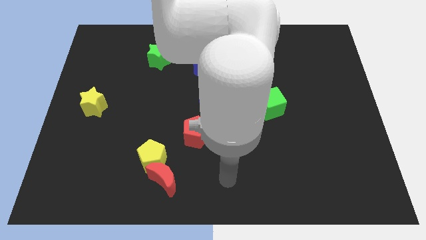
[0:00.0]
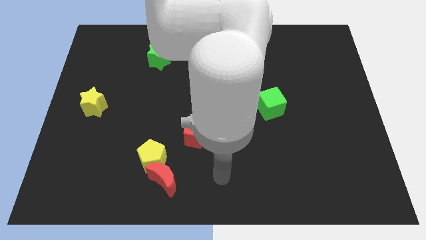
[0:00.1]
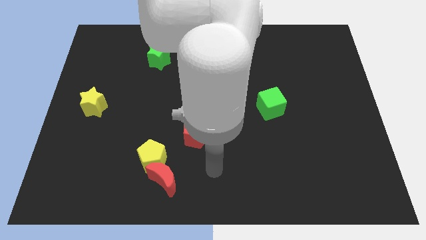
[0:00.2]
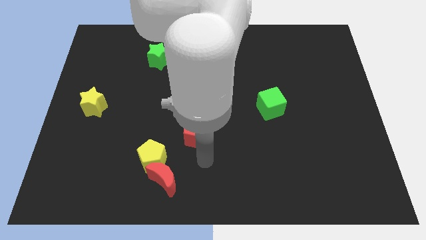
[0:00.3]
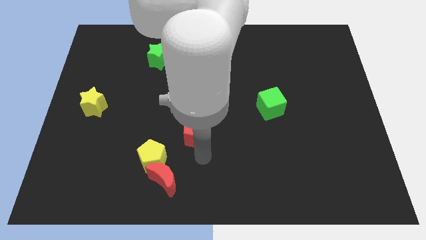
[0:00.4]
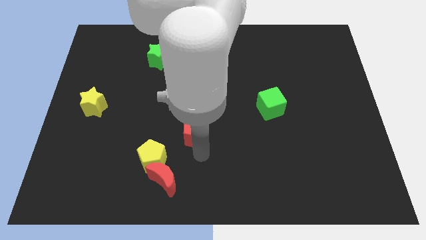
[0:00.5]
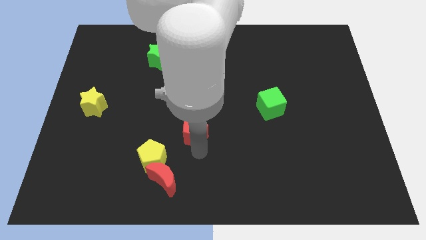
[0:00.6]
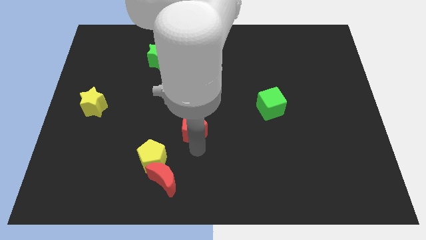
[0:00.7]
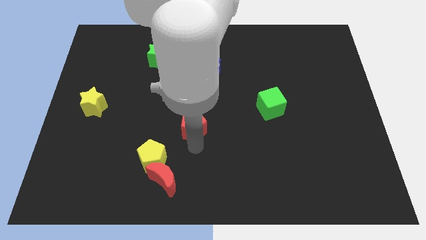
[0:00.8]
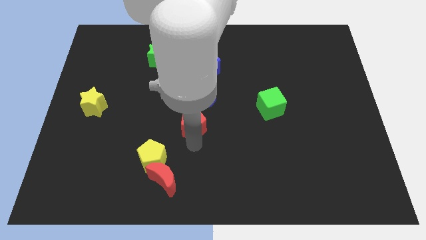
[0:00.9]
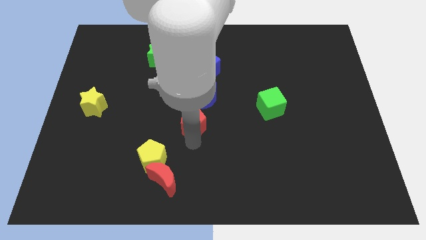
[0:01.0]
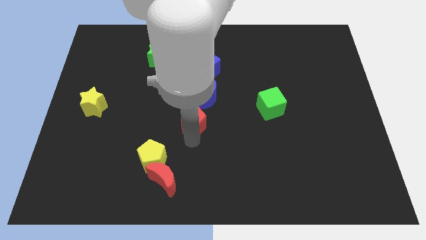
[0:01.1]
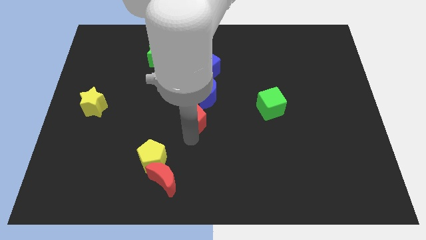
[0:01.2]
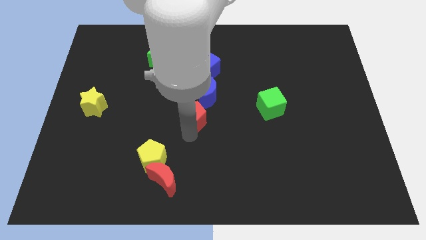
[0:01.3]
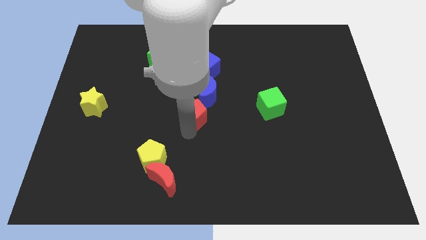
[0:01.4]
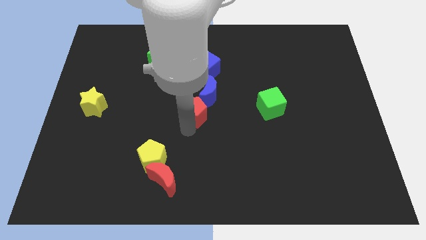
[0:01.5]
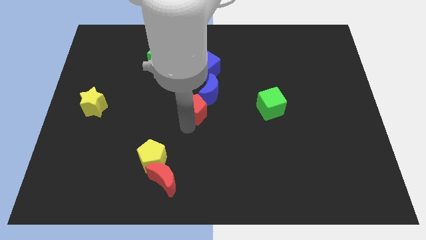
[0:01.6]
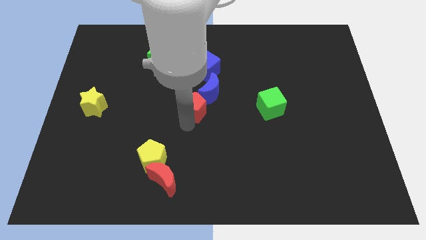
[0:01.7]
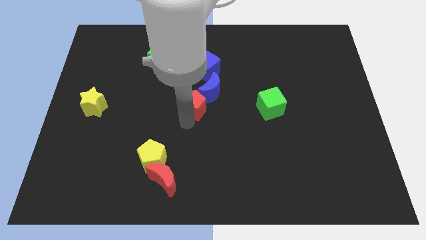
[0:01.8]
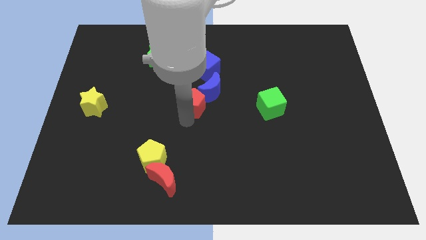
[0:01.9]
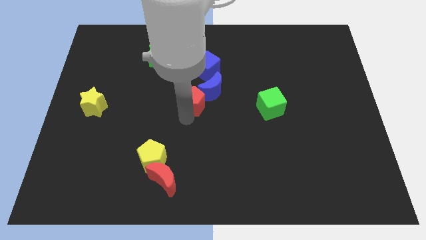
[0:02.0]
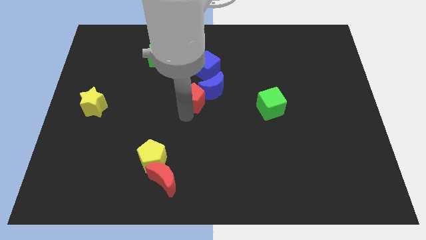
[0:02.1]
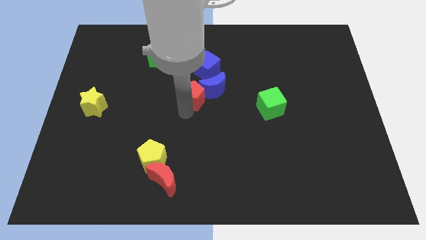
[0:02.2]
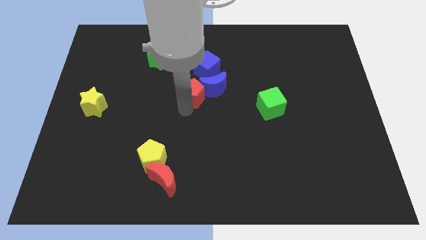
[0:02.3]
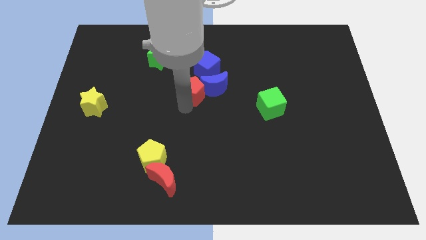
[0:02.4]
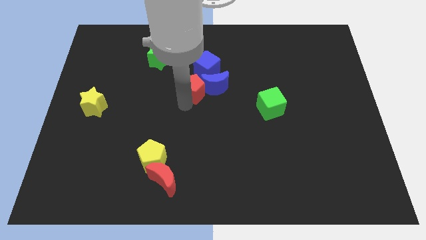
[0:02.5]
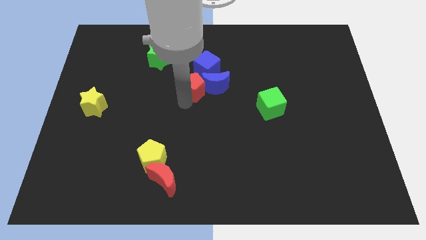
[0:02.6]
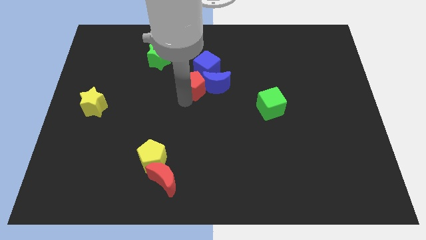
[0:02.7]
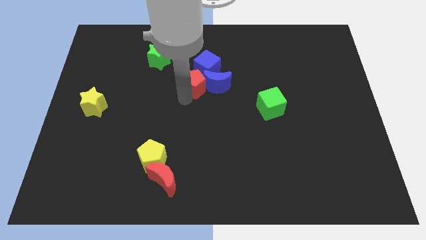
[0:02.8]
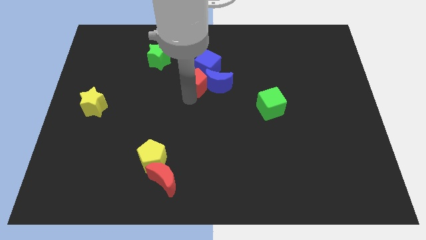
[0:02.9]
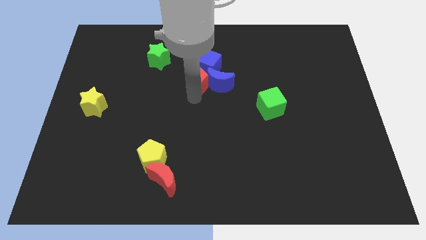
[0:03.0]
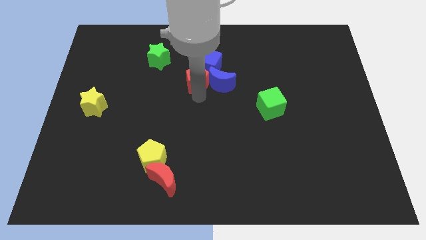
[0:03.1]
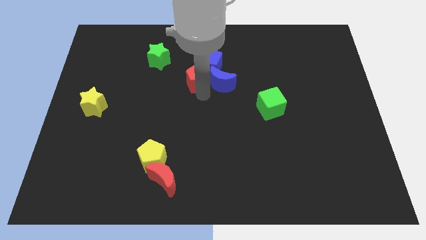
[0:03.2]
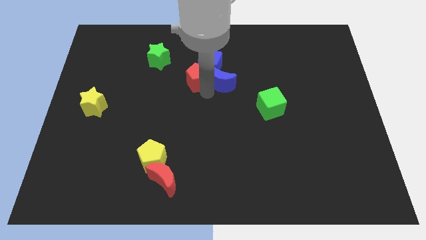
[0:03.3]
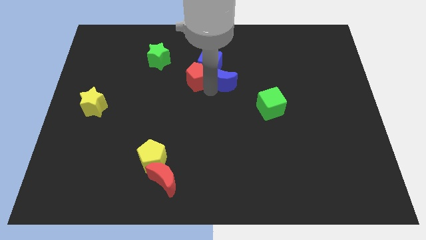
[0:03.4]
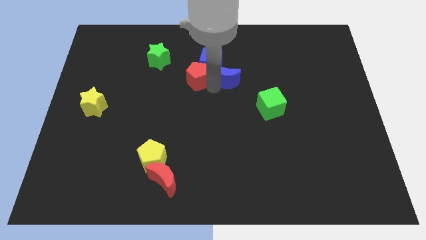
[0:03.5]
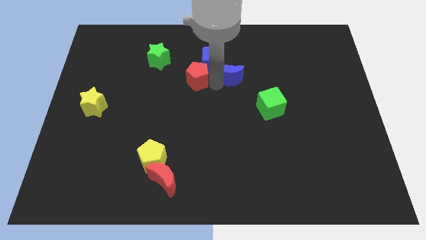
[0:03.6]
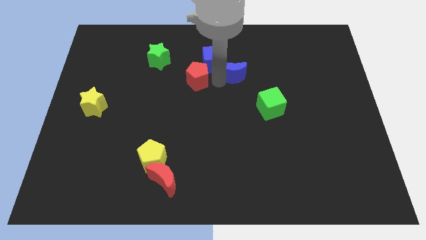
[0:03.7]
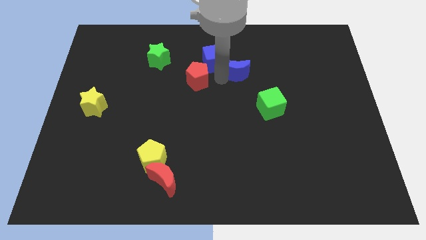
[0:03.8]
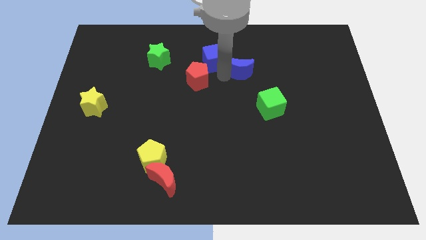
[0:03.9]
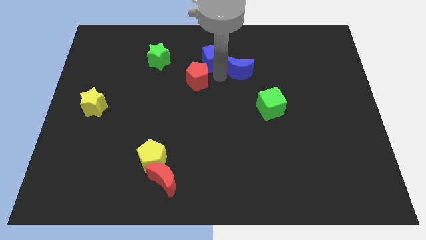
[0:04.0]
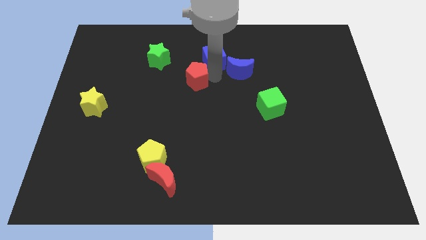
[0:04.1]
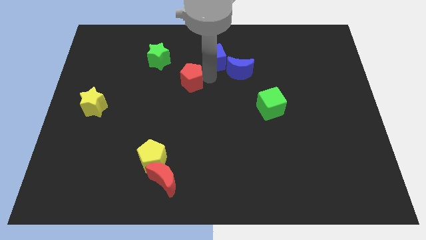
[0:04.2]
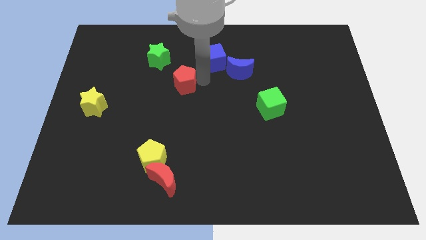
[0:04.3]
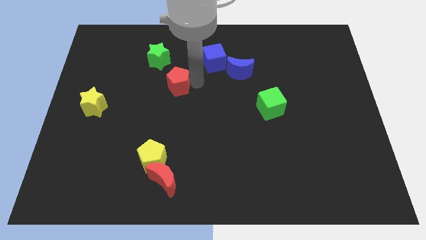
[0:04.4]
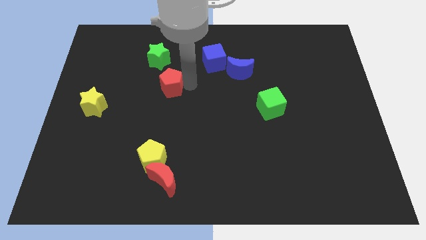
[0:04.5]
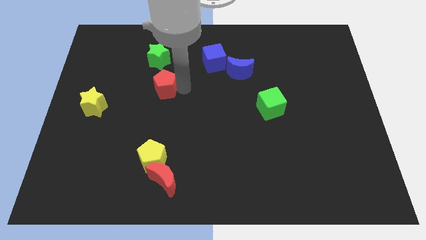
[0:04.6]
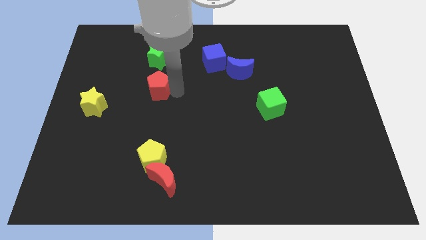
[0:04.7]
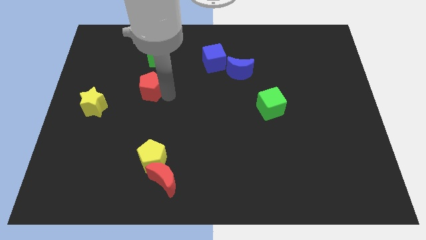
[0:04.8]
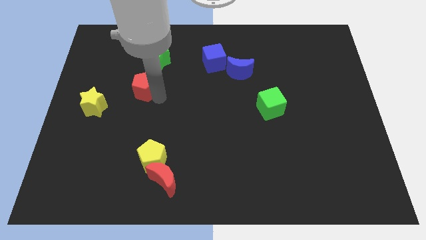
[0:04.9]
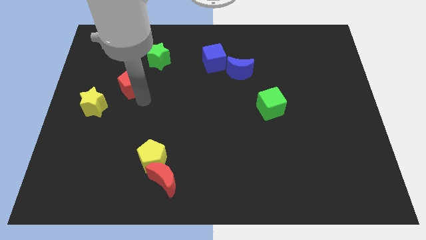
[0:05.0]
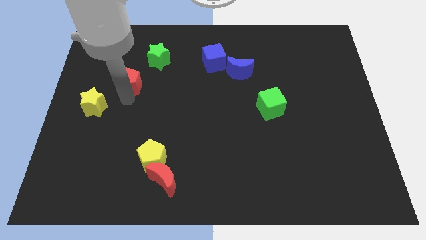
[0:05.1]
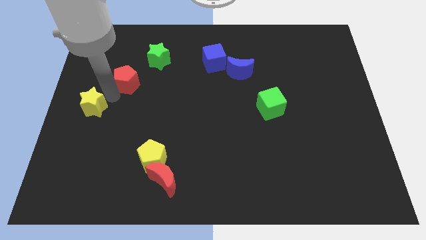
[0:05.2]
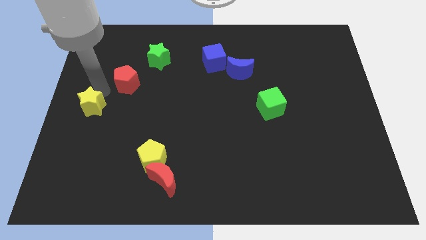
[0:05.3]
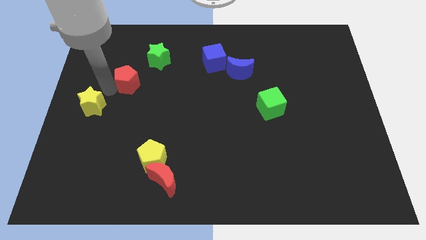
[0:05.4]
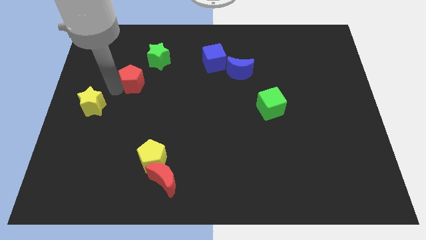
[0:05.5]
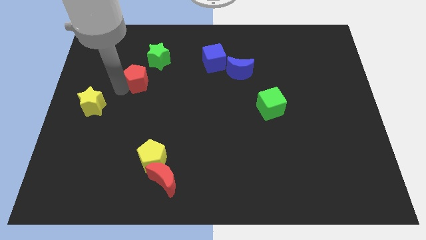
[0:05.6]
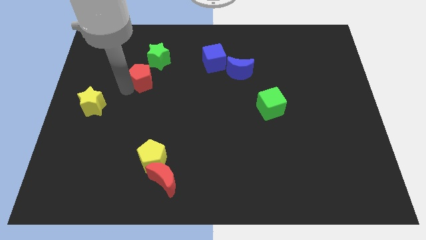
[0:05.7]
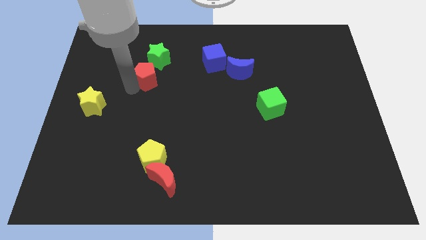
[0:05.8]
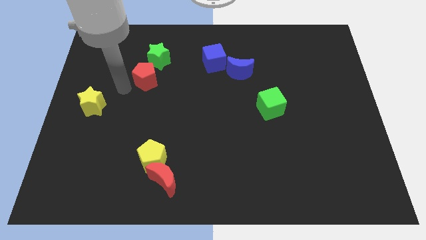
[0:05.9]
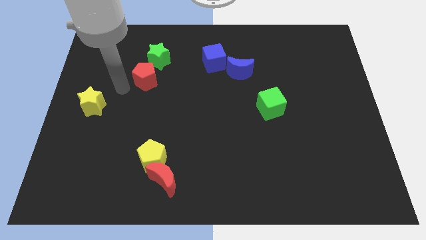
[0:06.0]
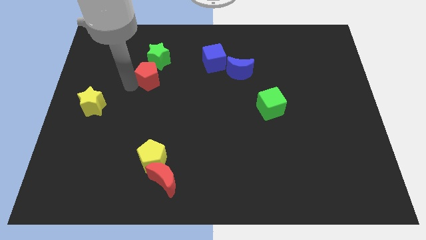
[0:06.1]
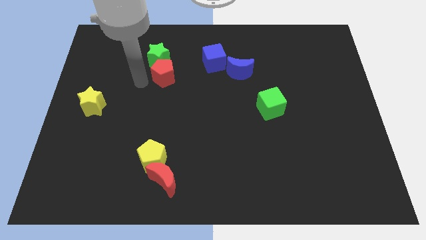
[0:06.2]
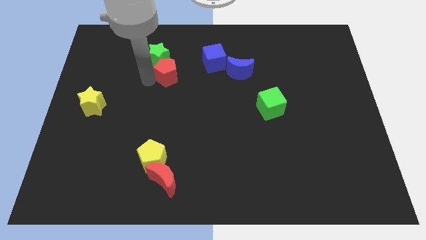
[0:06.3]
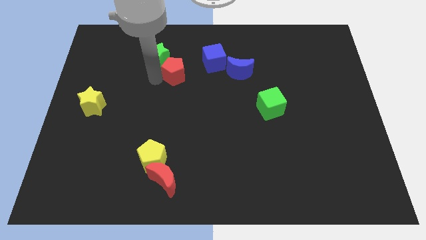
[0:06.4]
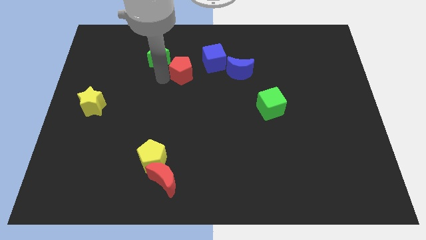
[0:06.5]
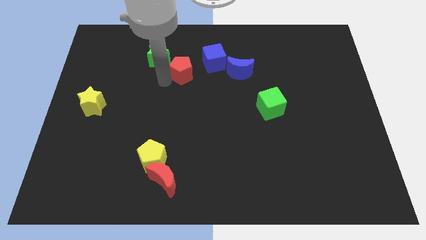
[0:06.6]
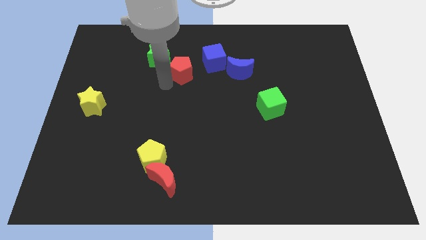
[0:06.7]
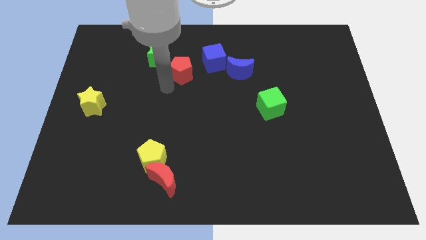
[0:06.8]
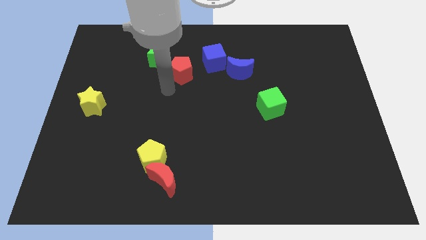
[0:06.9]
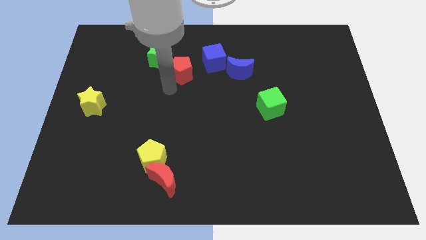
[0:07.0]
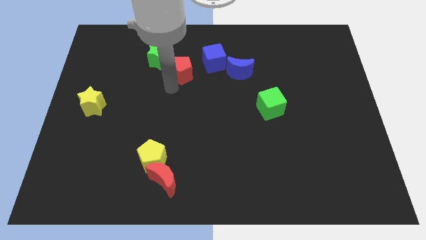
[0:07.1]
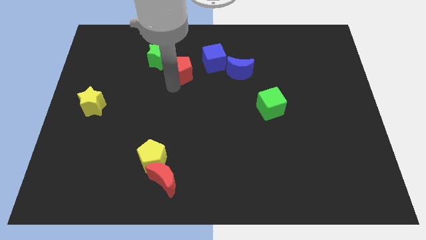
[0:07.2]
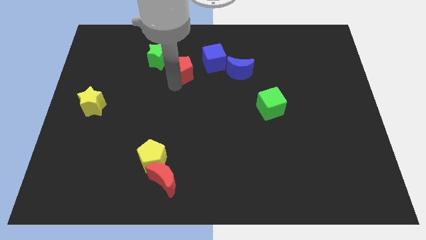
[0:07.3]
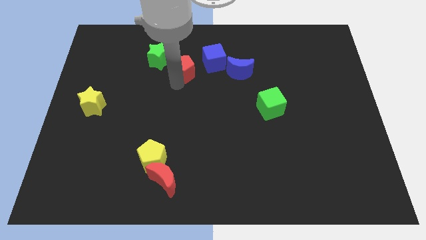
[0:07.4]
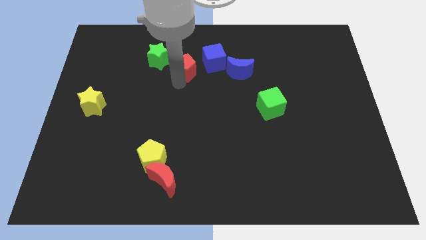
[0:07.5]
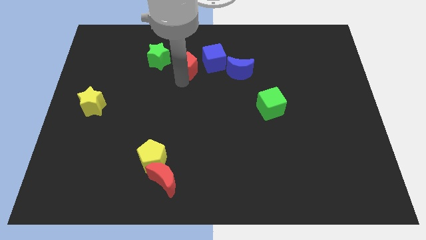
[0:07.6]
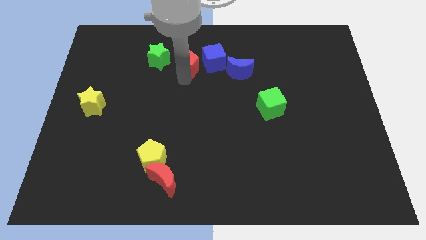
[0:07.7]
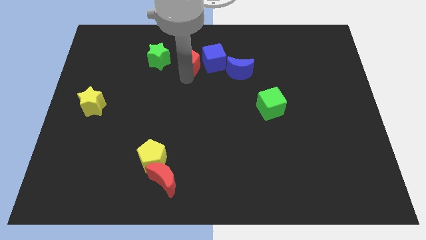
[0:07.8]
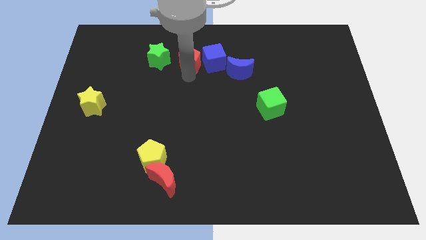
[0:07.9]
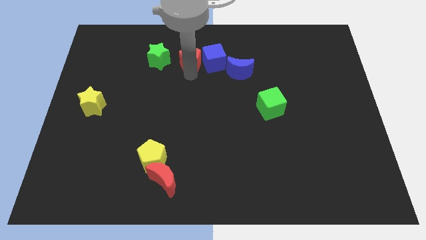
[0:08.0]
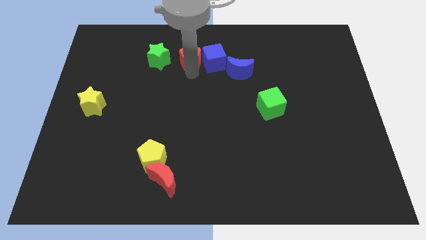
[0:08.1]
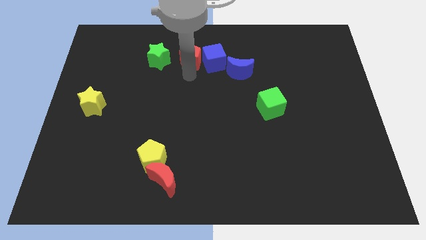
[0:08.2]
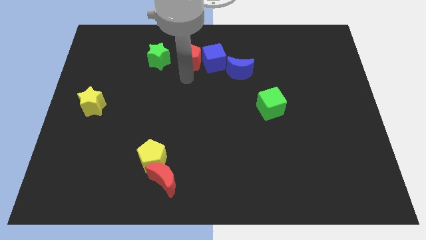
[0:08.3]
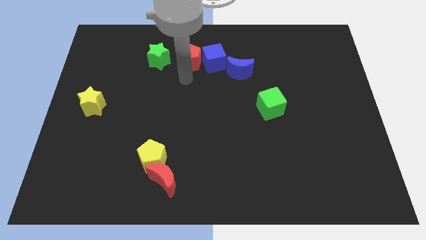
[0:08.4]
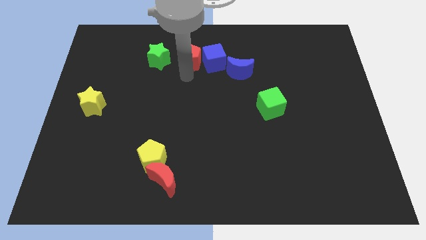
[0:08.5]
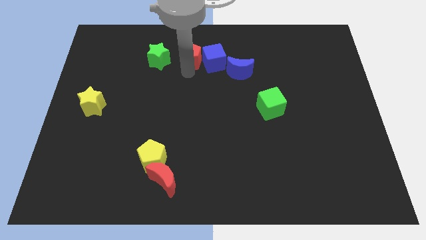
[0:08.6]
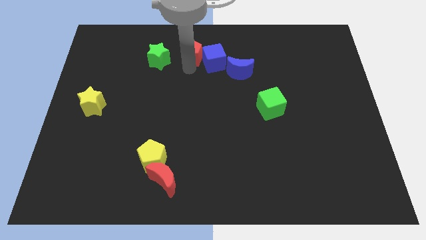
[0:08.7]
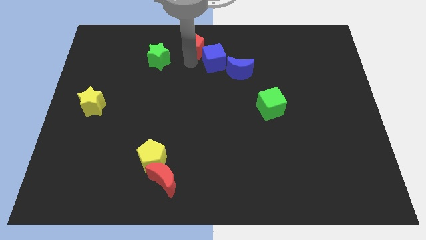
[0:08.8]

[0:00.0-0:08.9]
push the red pentagon to the top side
